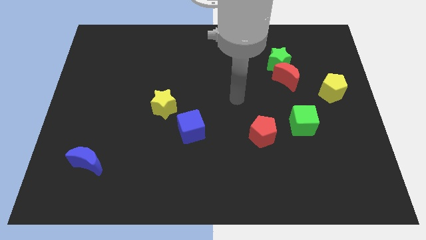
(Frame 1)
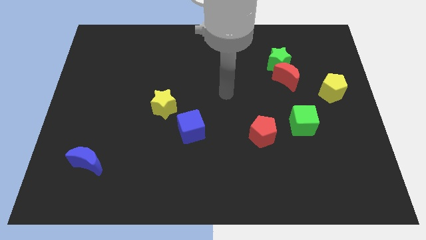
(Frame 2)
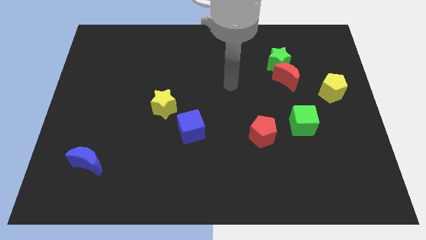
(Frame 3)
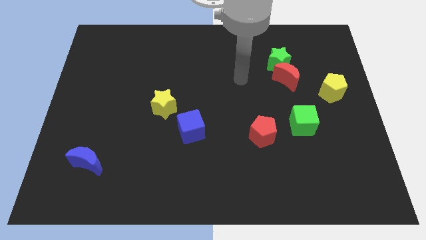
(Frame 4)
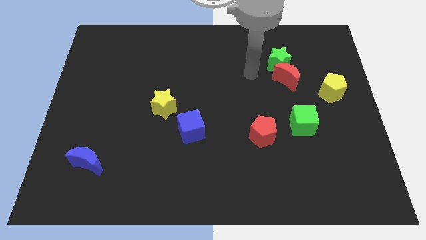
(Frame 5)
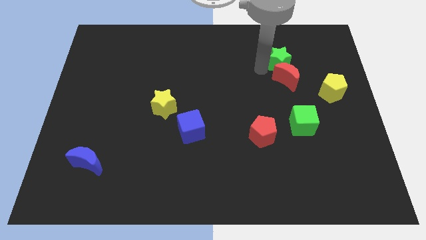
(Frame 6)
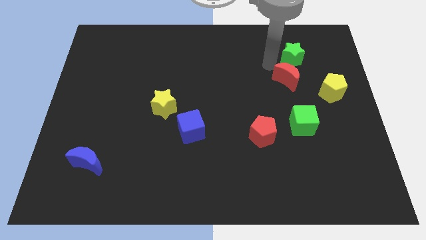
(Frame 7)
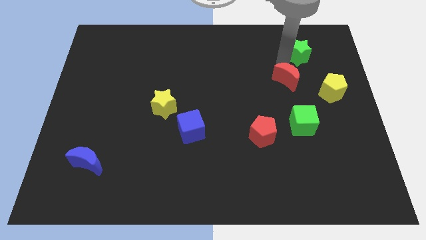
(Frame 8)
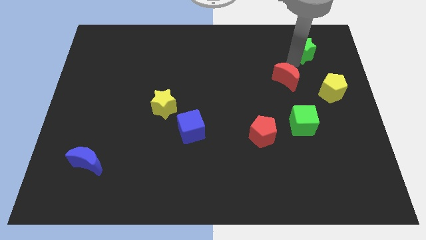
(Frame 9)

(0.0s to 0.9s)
move the red moon away from the green star

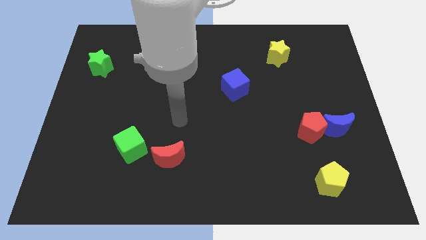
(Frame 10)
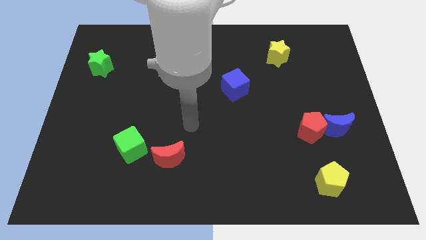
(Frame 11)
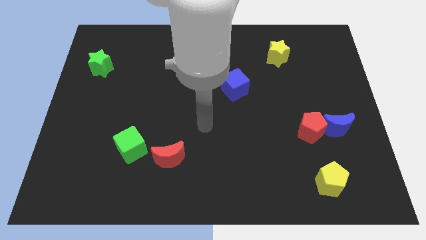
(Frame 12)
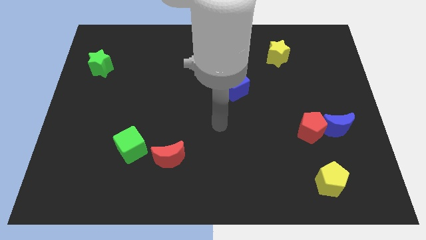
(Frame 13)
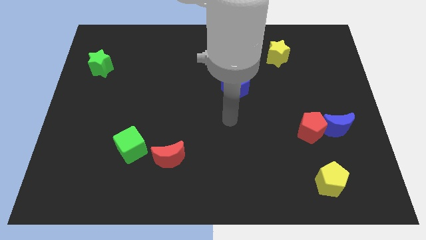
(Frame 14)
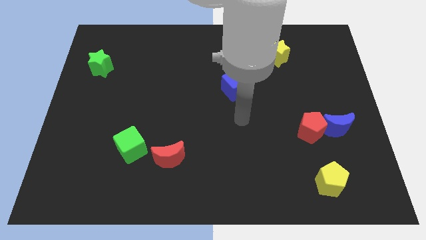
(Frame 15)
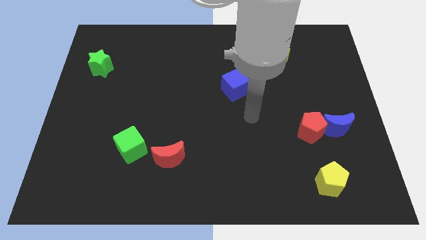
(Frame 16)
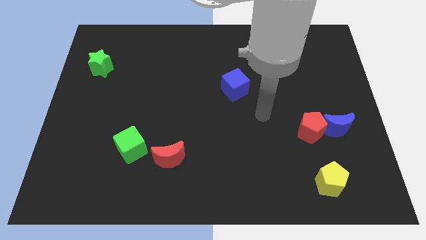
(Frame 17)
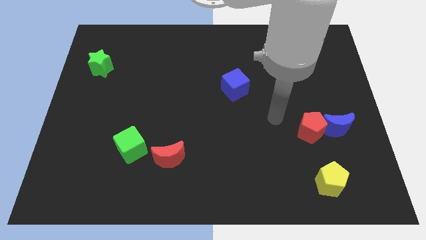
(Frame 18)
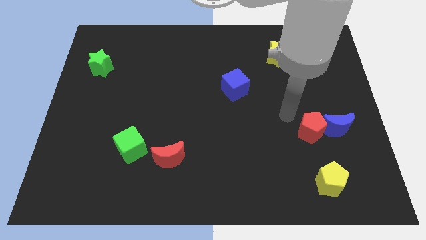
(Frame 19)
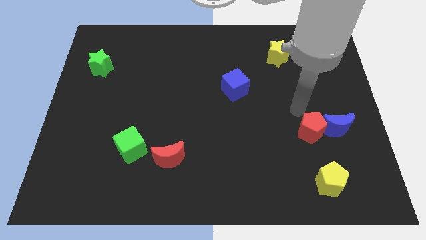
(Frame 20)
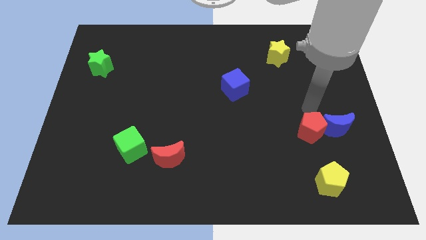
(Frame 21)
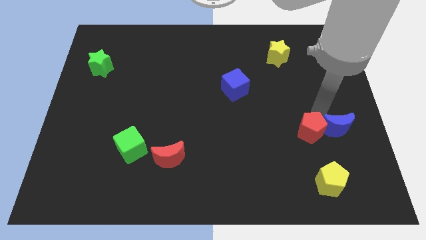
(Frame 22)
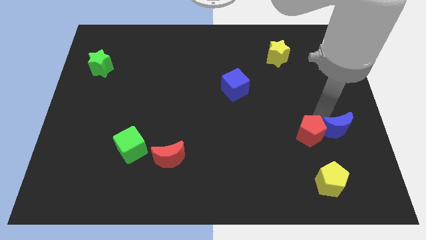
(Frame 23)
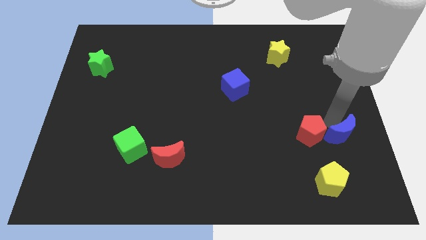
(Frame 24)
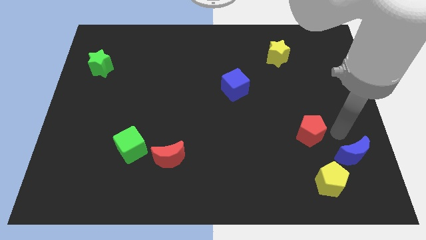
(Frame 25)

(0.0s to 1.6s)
move the red pentagon away from the blue moon

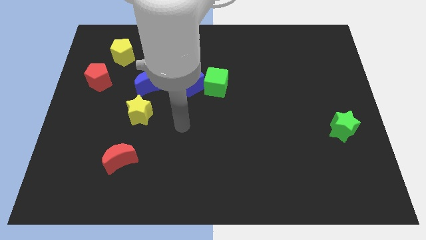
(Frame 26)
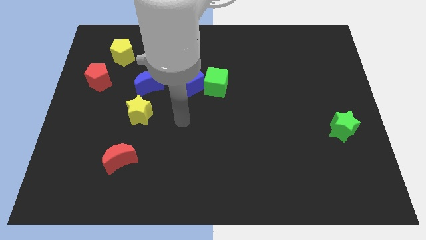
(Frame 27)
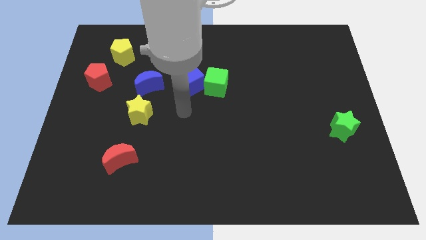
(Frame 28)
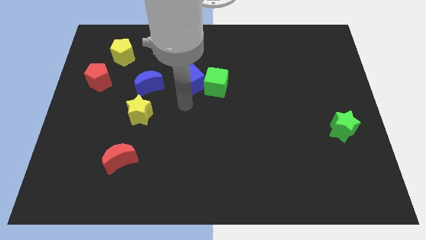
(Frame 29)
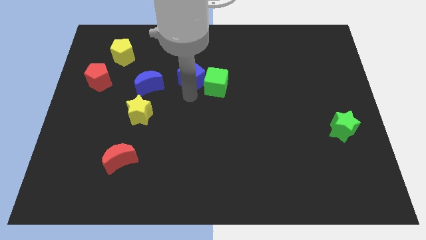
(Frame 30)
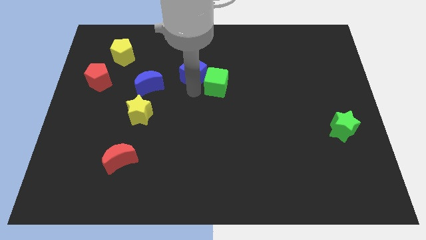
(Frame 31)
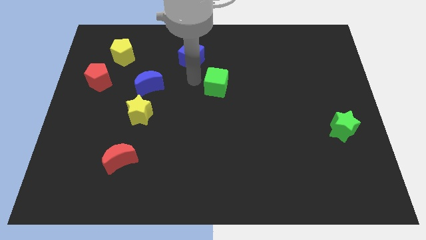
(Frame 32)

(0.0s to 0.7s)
move the green cube away from the blue cube

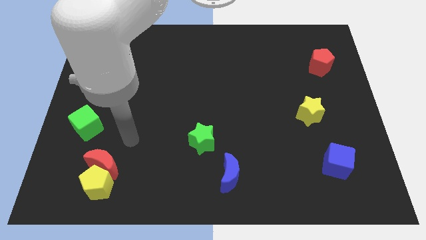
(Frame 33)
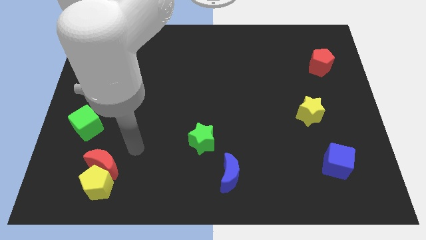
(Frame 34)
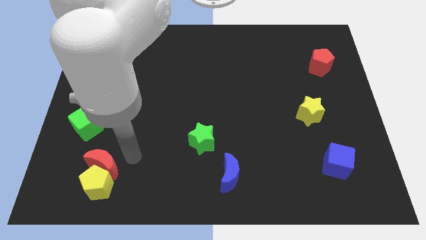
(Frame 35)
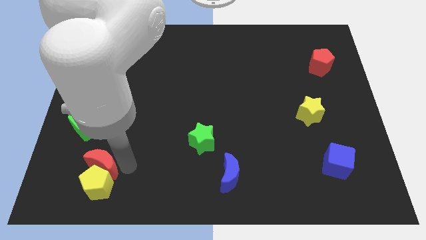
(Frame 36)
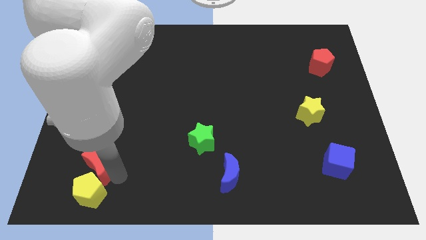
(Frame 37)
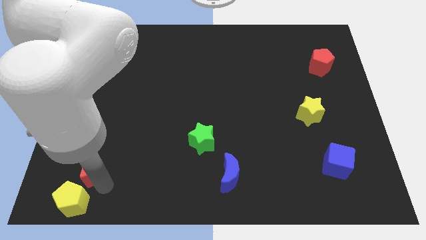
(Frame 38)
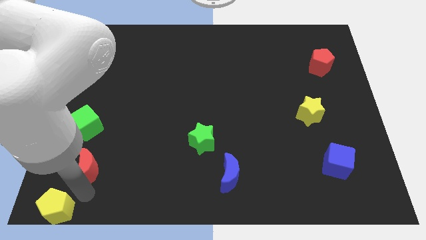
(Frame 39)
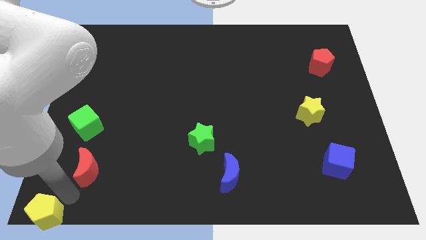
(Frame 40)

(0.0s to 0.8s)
move the red moon away from the yellow pentagon

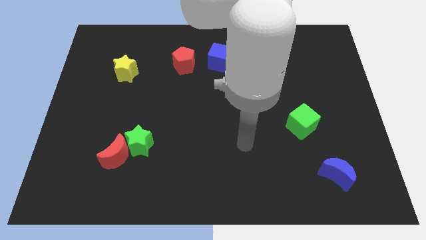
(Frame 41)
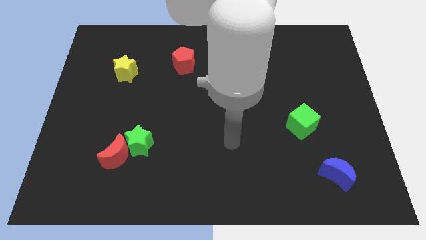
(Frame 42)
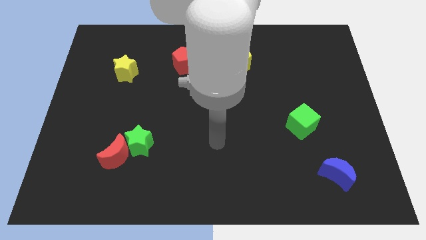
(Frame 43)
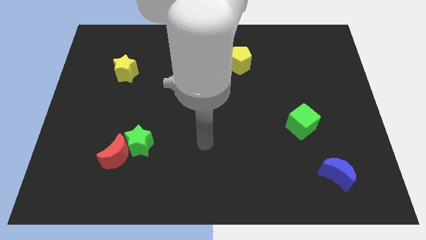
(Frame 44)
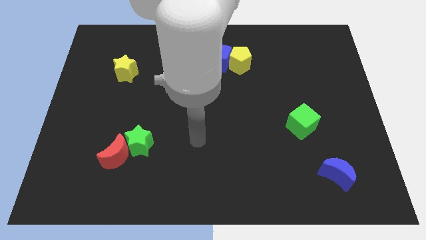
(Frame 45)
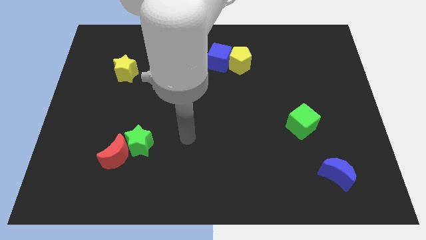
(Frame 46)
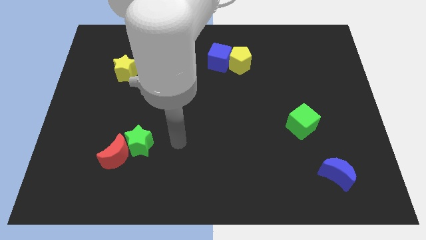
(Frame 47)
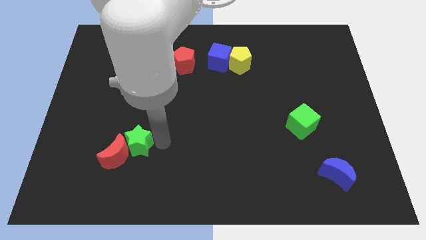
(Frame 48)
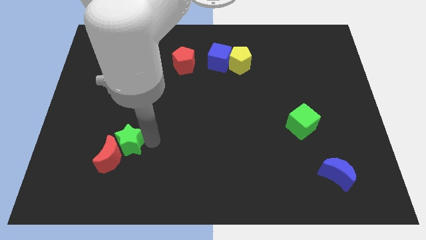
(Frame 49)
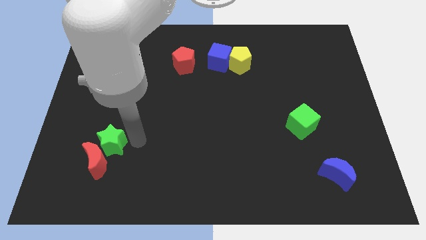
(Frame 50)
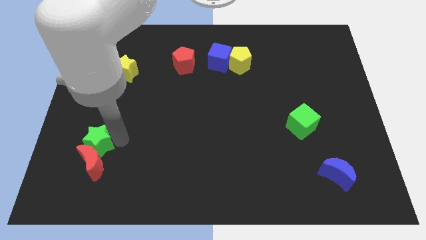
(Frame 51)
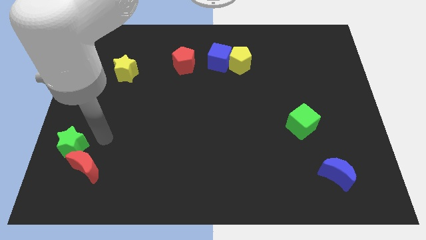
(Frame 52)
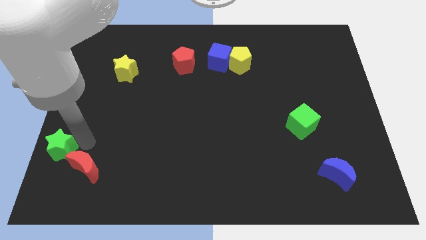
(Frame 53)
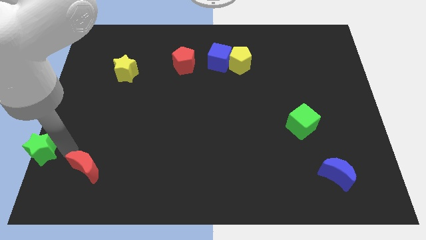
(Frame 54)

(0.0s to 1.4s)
separate the red moon from the green star

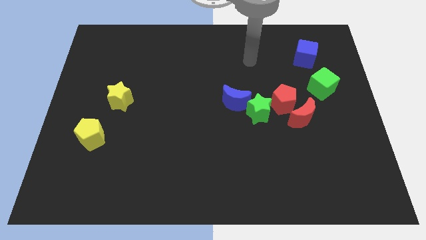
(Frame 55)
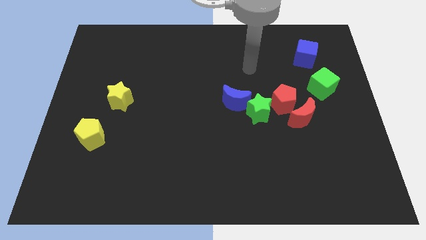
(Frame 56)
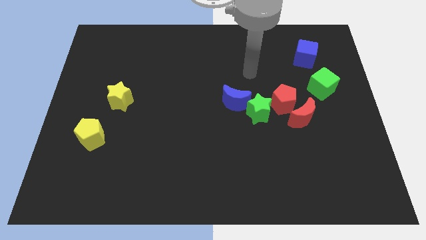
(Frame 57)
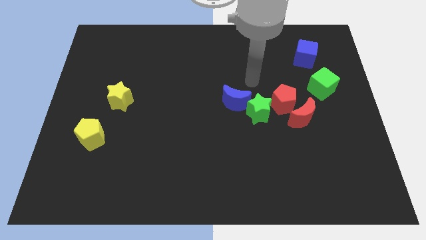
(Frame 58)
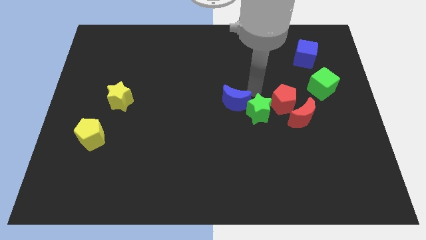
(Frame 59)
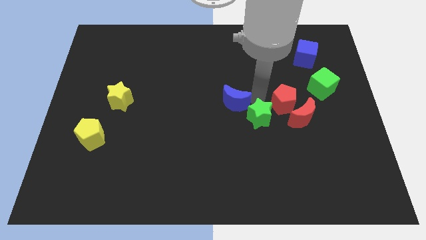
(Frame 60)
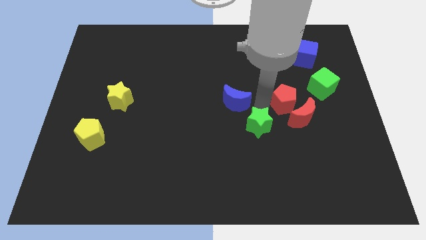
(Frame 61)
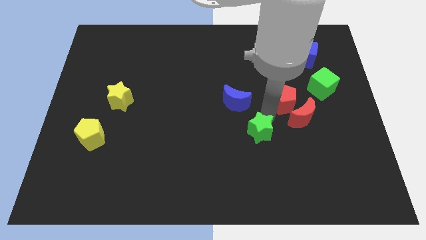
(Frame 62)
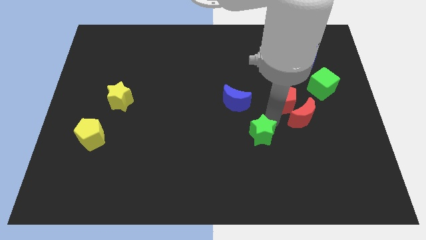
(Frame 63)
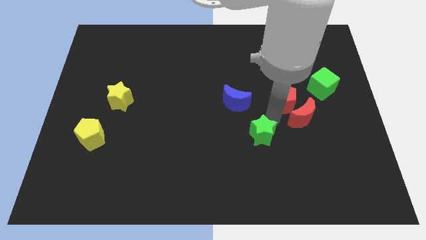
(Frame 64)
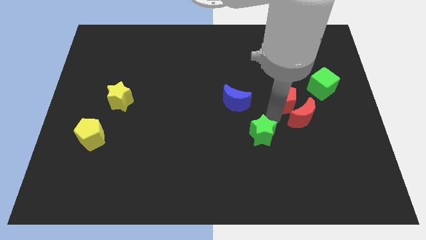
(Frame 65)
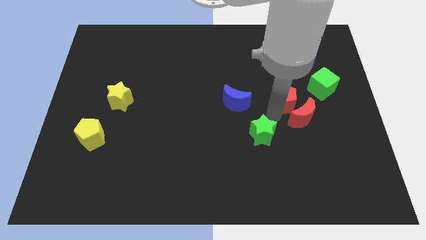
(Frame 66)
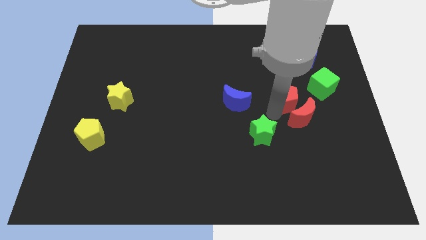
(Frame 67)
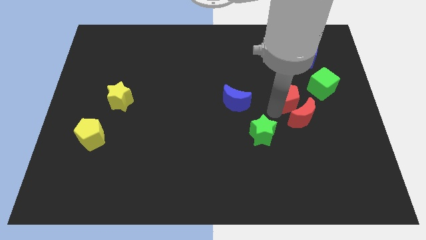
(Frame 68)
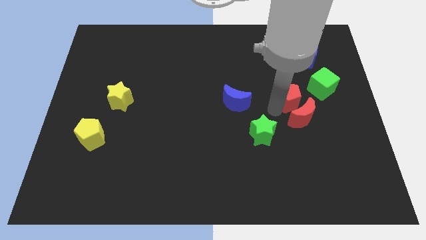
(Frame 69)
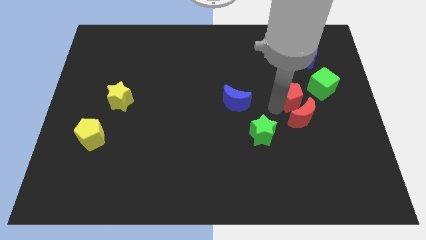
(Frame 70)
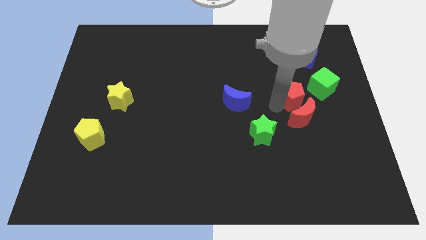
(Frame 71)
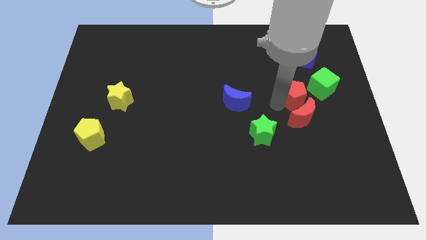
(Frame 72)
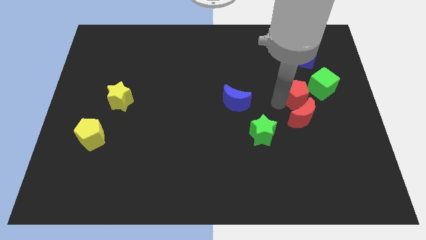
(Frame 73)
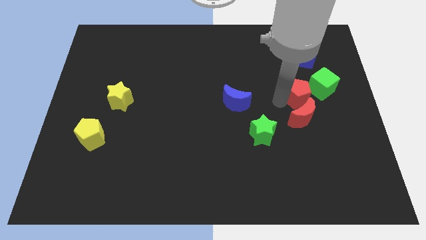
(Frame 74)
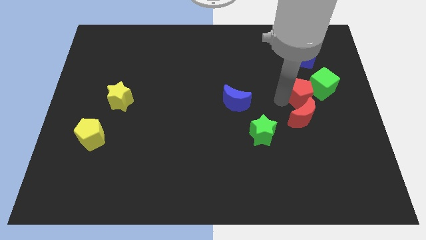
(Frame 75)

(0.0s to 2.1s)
move the red pentagon away from the red moon and green star

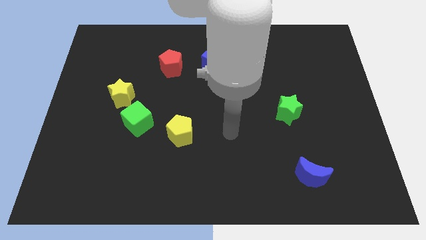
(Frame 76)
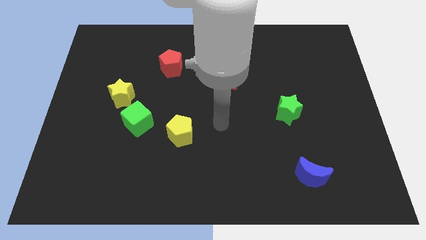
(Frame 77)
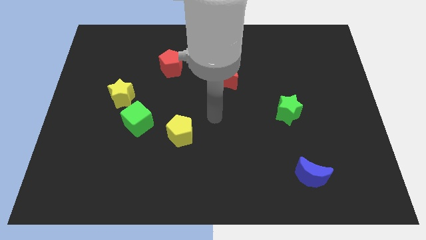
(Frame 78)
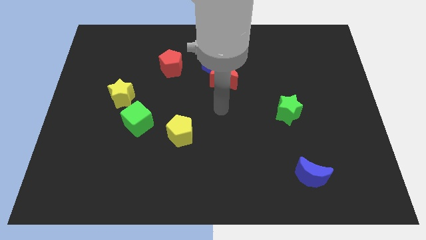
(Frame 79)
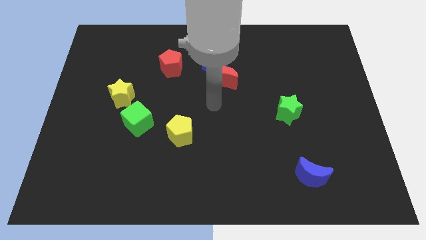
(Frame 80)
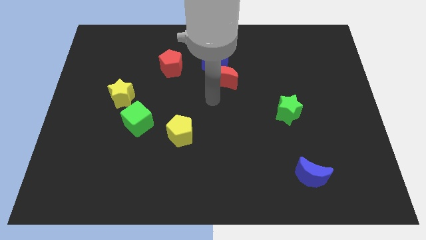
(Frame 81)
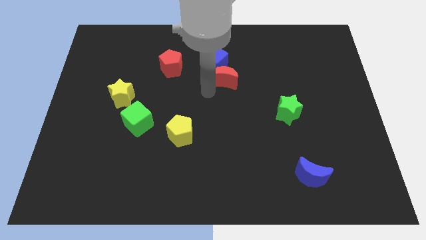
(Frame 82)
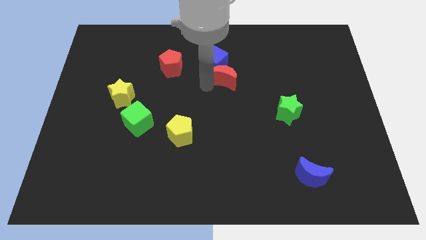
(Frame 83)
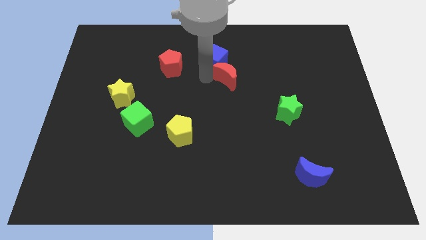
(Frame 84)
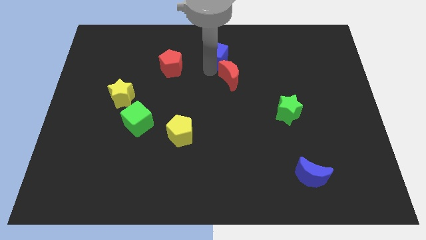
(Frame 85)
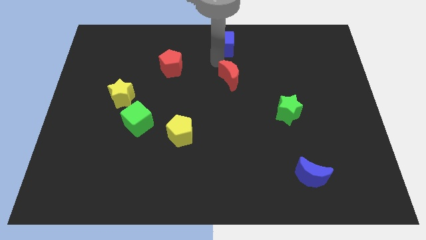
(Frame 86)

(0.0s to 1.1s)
separate the red moon from the blue cube

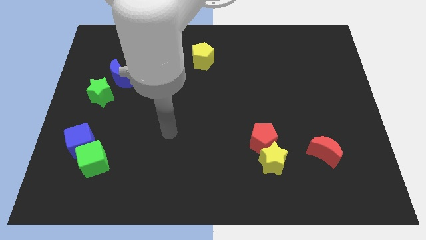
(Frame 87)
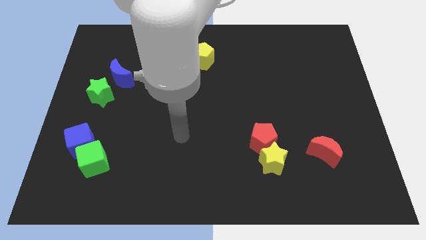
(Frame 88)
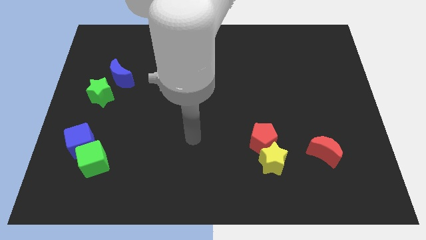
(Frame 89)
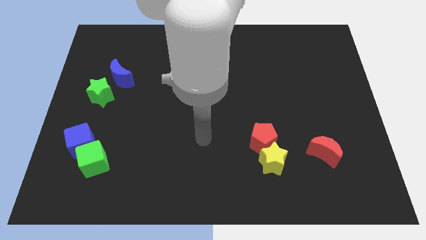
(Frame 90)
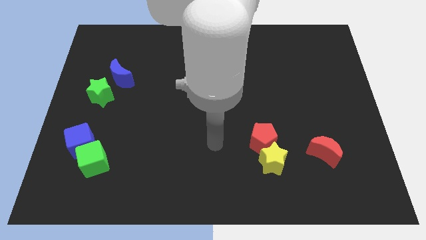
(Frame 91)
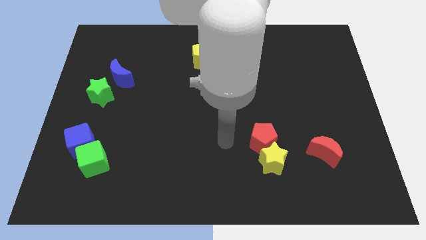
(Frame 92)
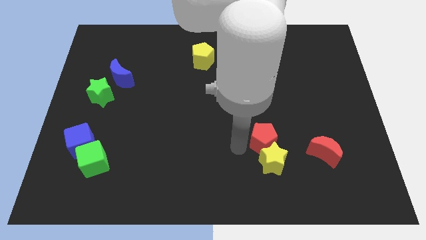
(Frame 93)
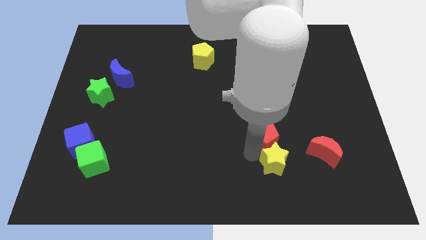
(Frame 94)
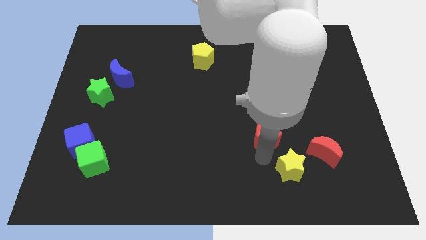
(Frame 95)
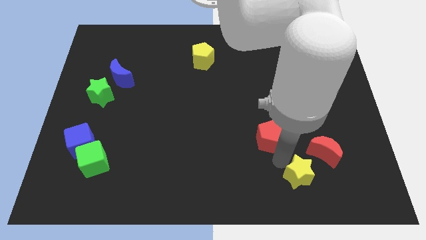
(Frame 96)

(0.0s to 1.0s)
pull the red pentagon apart from the yellow star
